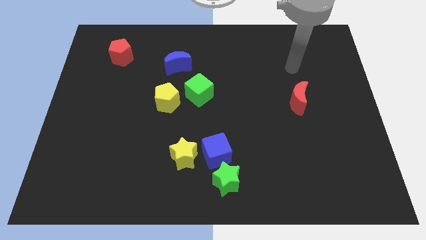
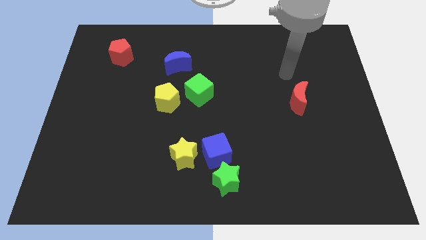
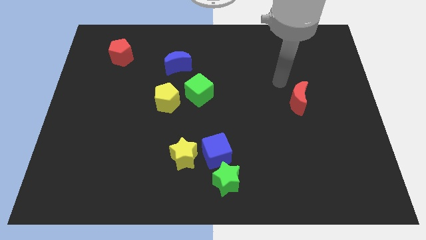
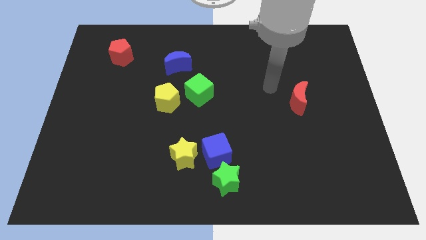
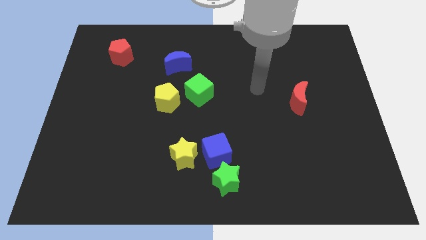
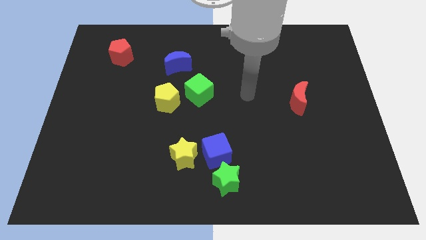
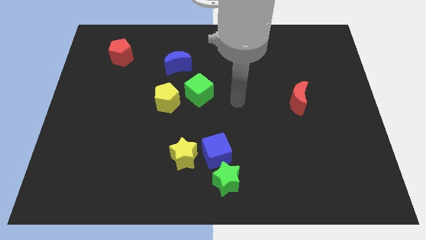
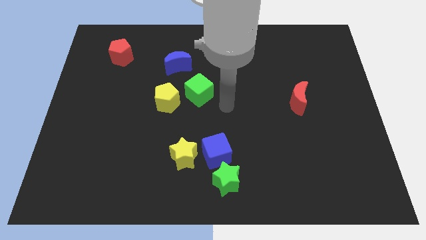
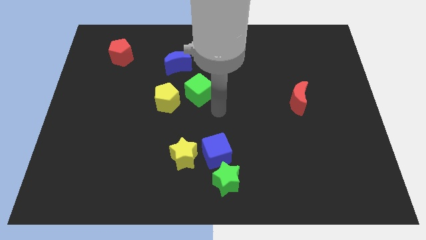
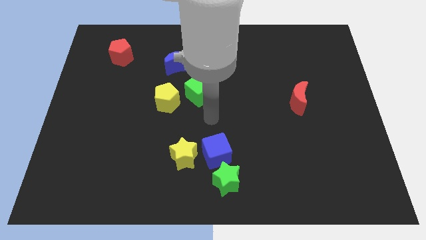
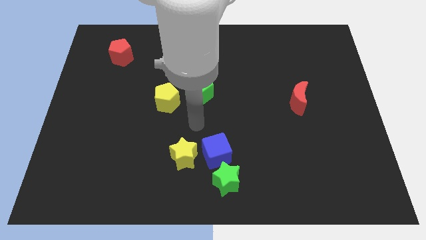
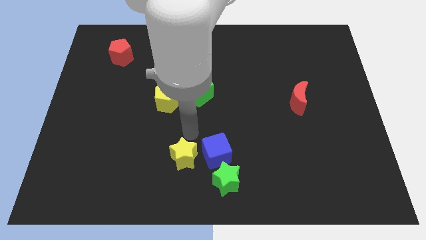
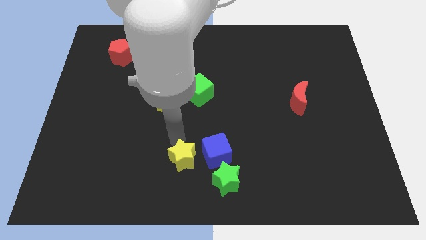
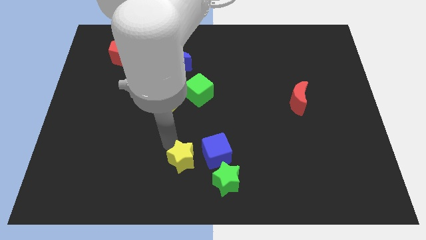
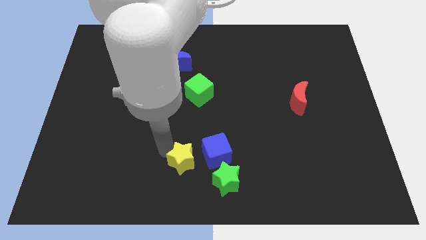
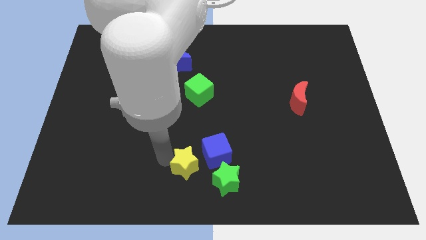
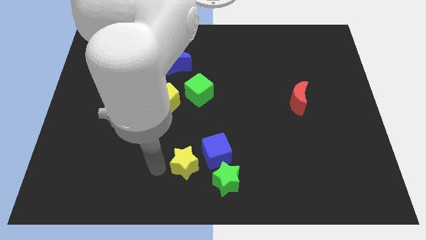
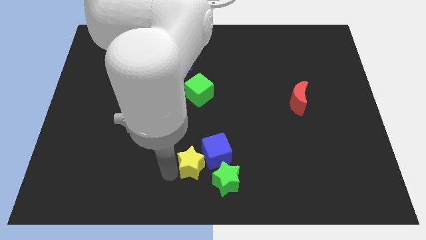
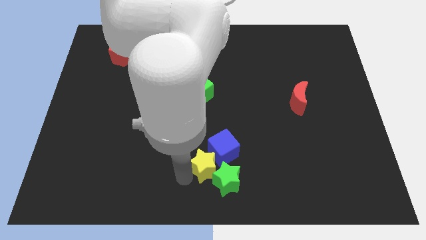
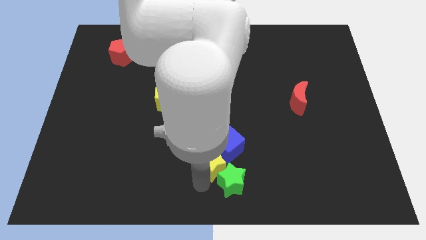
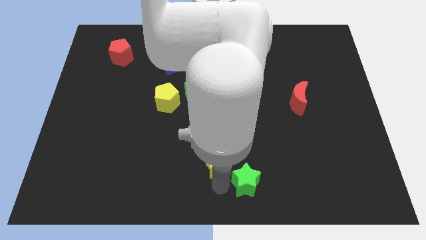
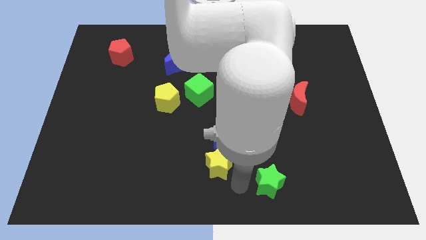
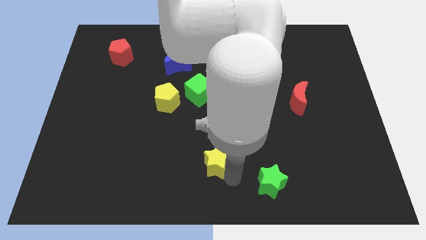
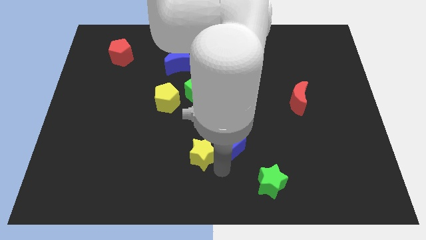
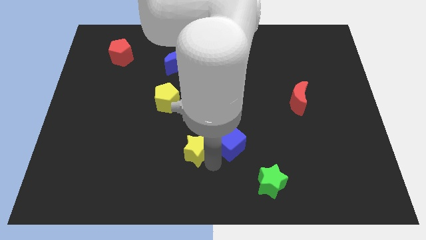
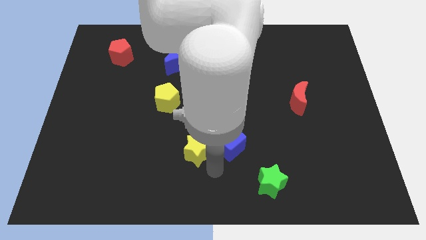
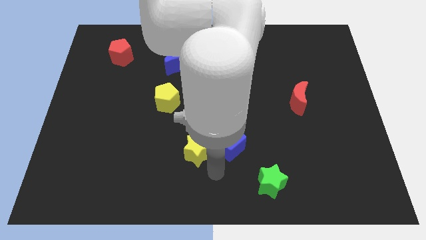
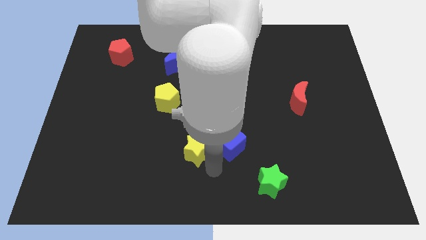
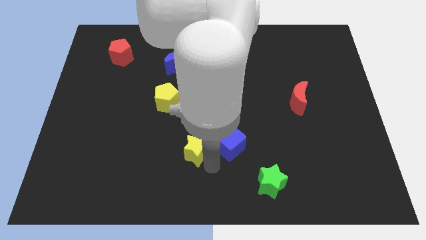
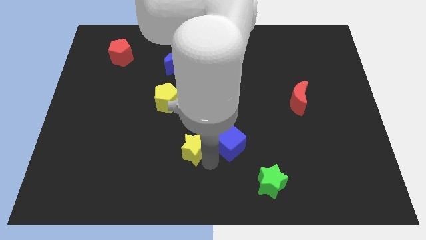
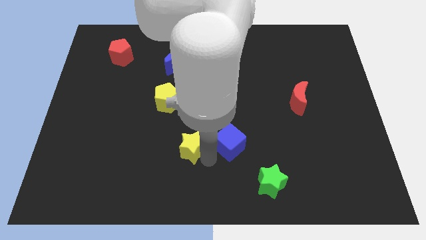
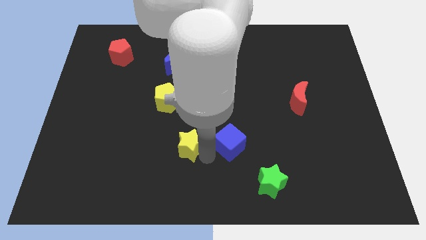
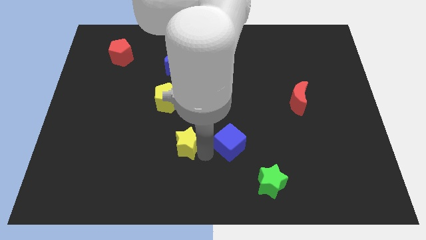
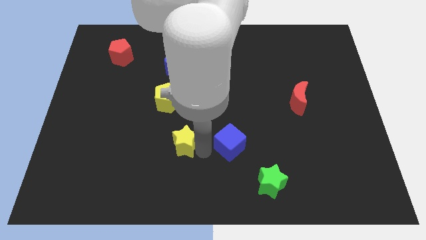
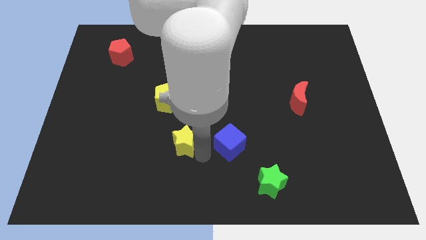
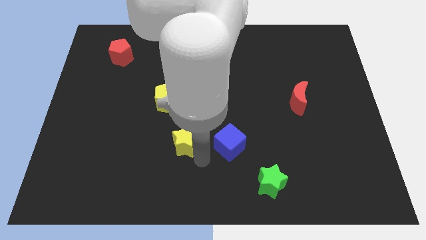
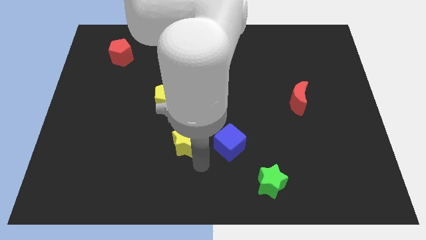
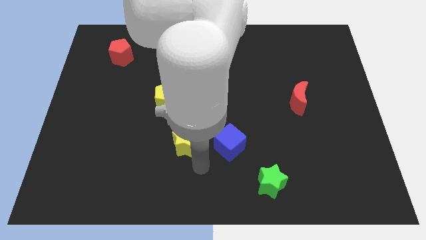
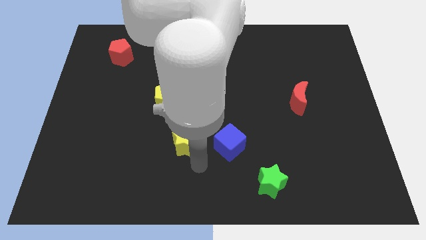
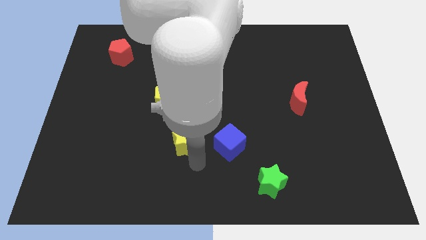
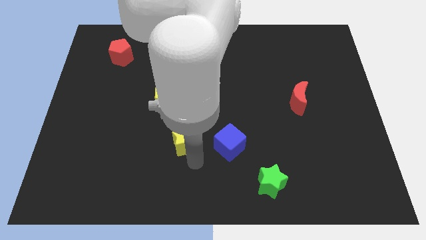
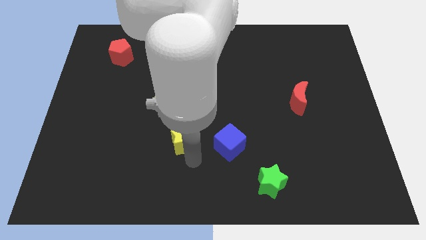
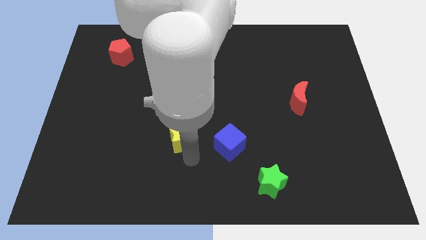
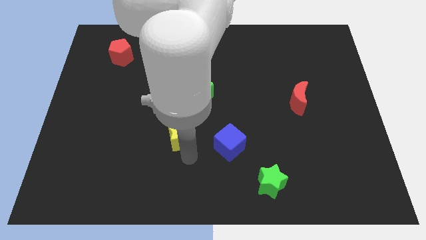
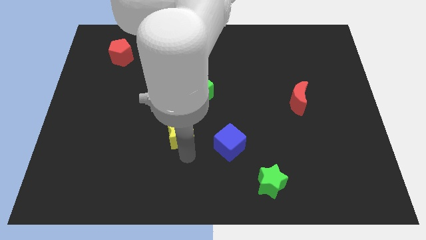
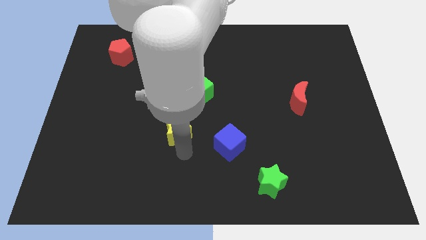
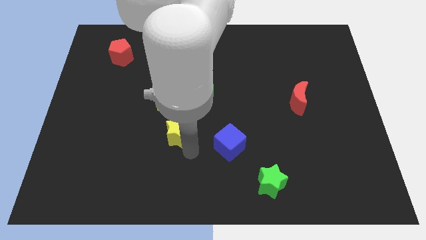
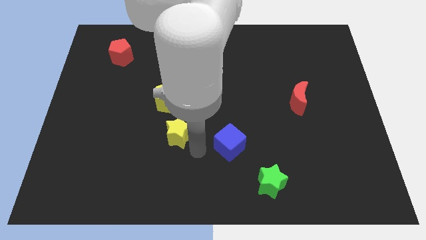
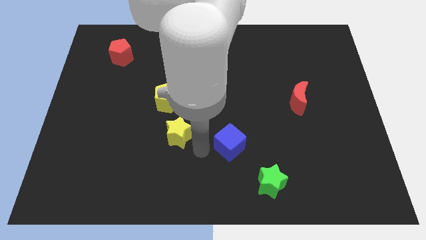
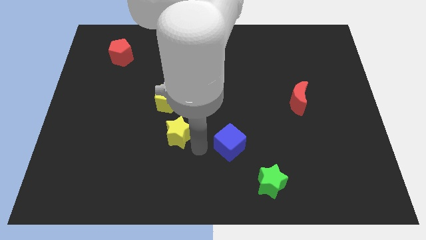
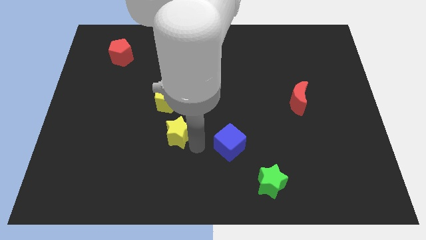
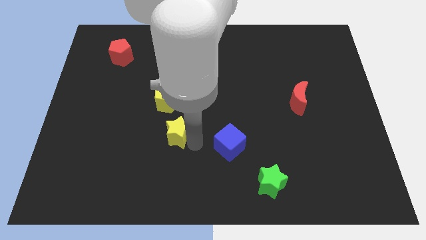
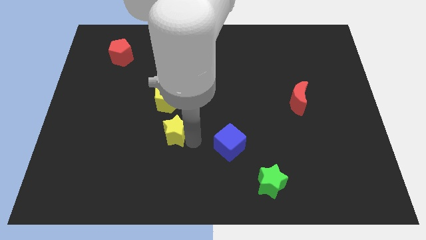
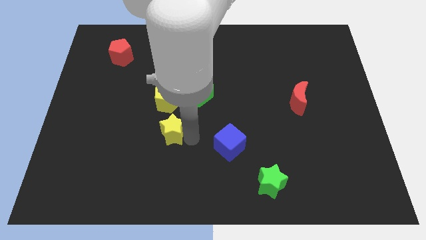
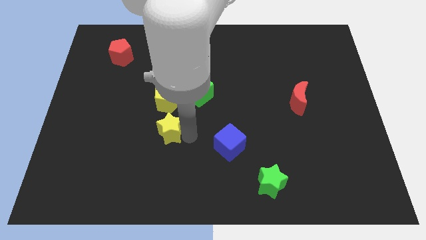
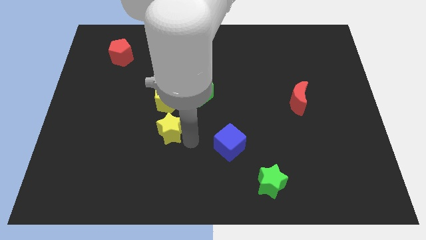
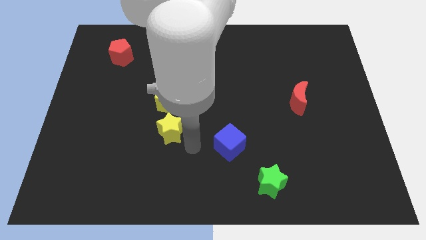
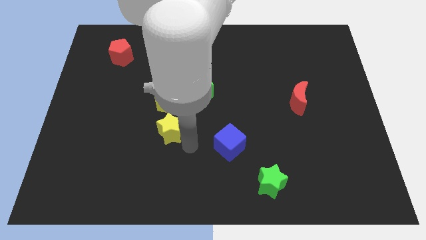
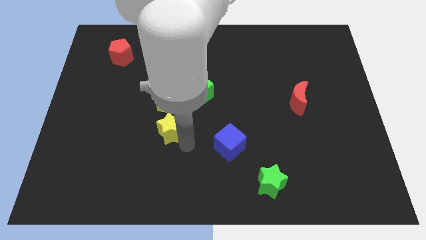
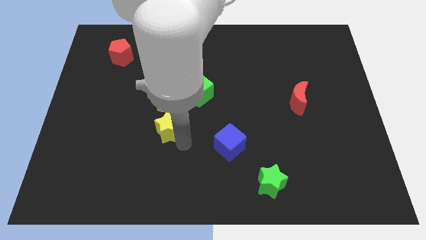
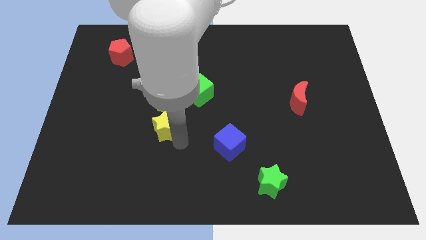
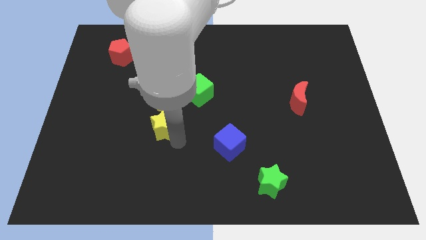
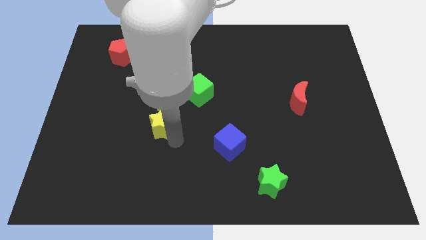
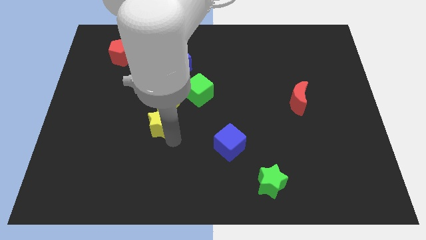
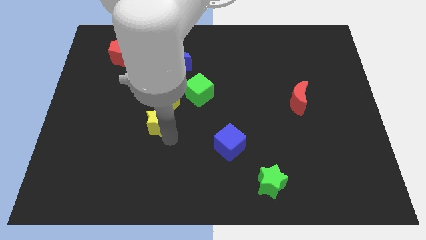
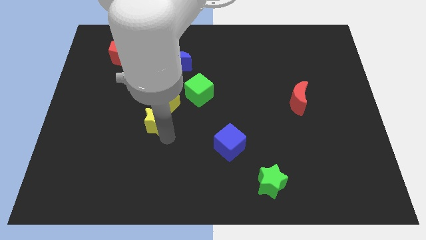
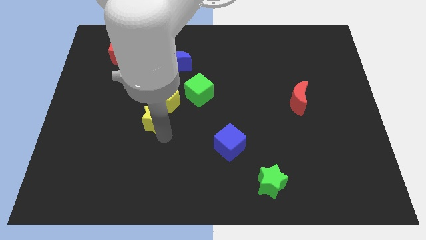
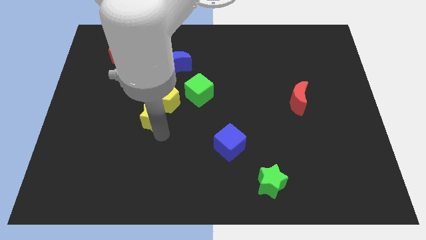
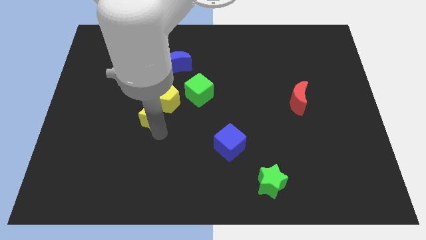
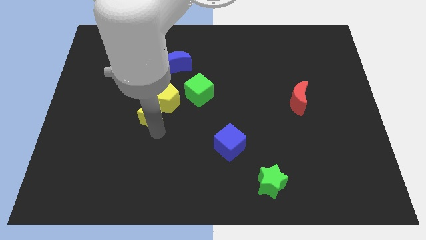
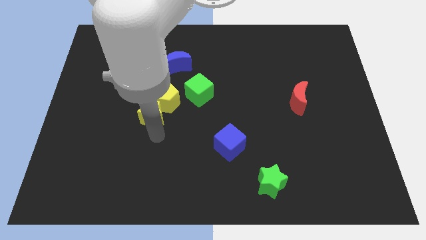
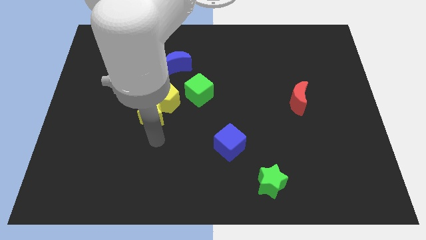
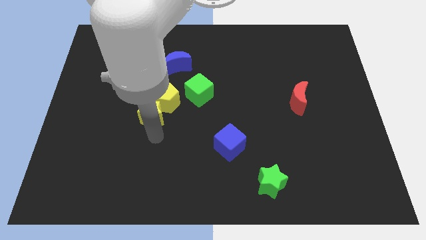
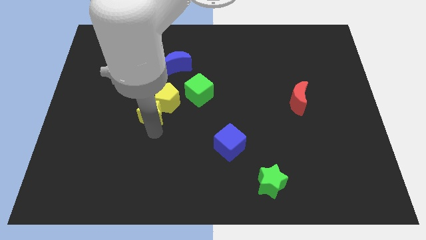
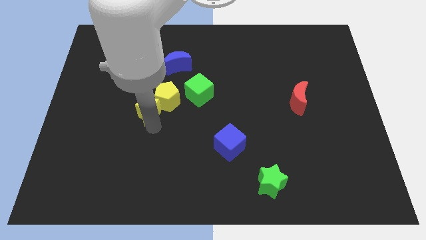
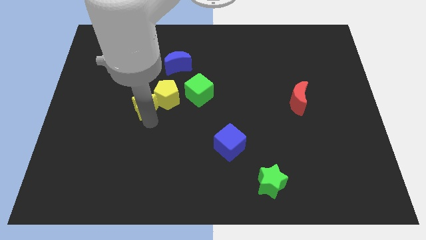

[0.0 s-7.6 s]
move the yellow star to the left of the green cube

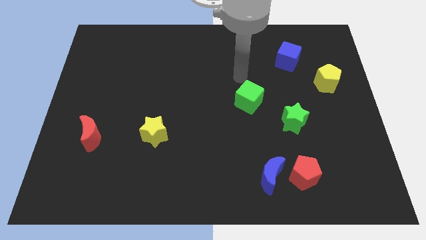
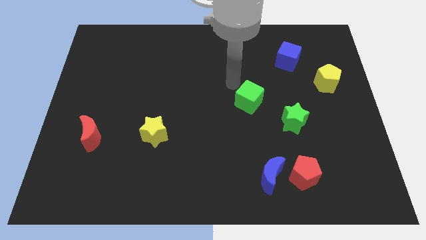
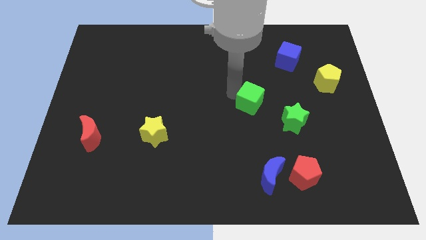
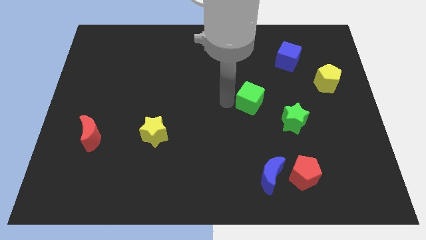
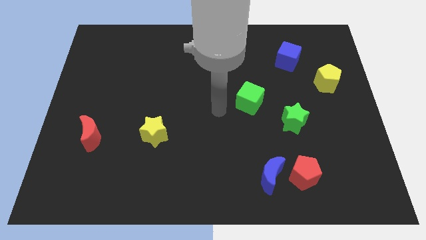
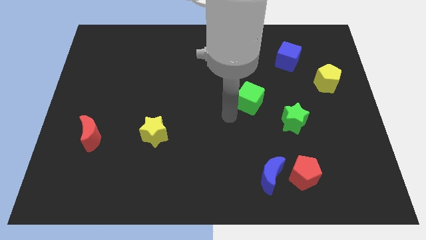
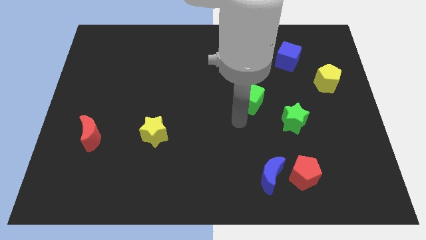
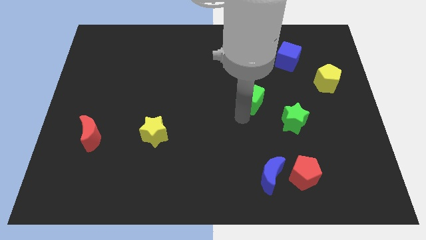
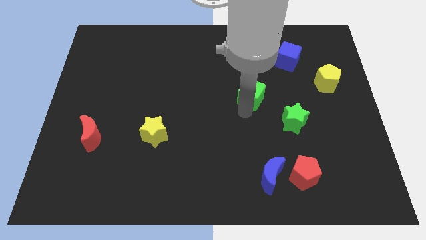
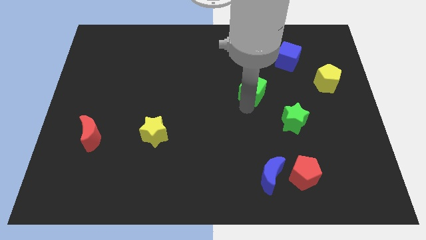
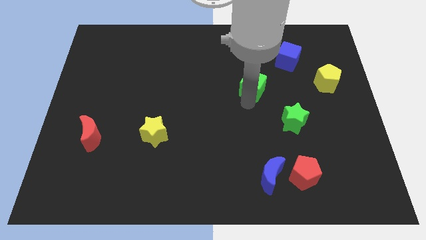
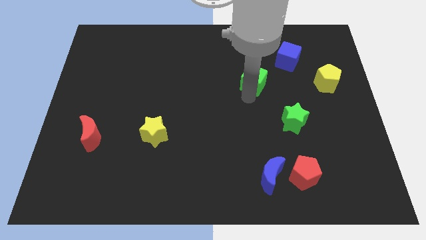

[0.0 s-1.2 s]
slide the green cube to the bottom left of the blue cube
